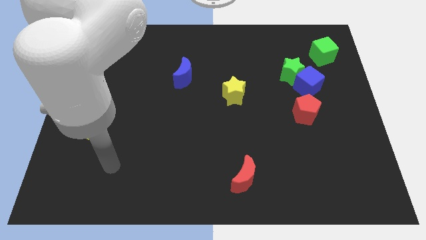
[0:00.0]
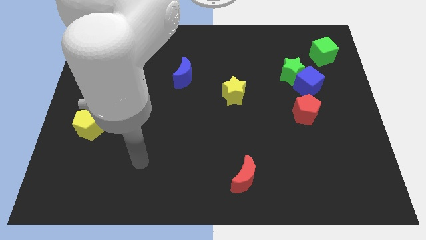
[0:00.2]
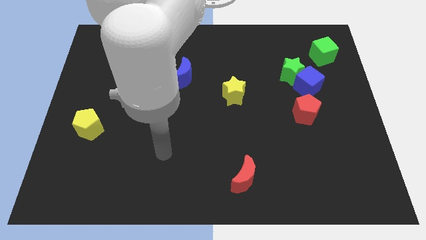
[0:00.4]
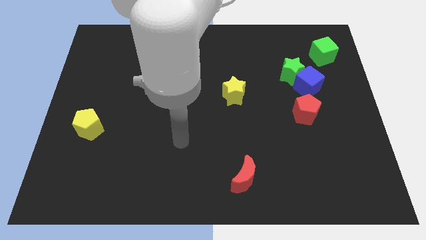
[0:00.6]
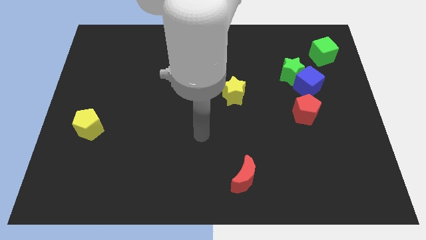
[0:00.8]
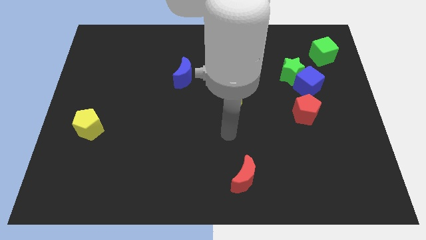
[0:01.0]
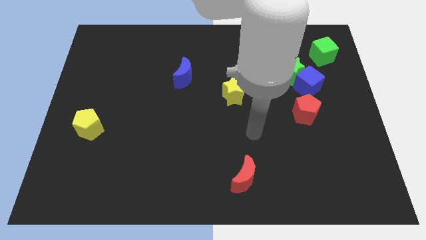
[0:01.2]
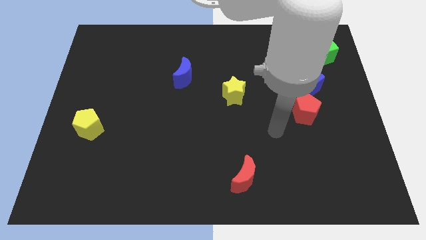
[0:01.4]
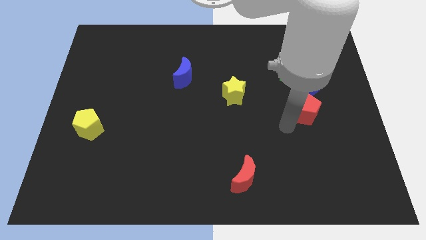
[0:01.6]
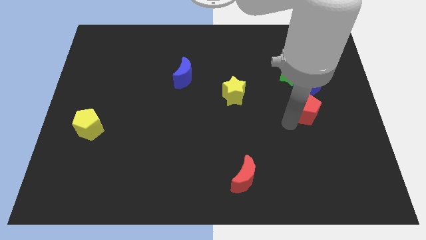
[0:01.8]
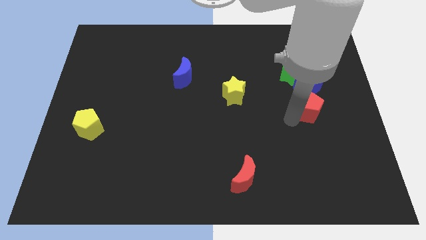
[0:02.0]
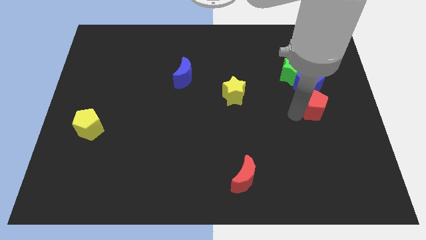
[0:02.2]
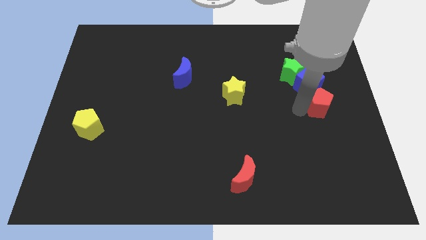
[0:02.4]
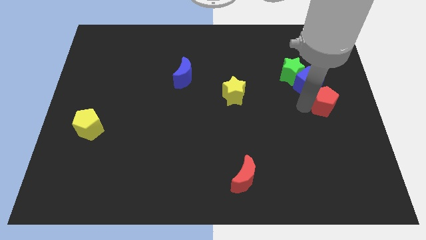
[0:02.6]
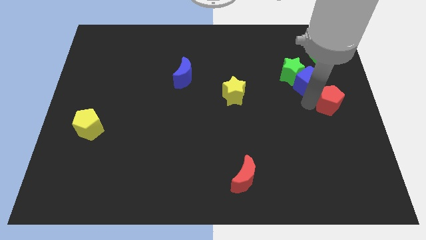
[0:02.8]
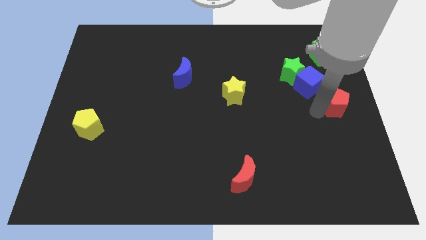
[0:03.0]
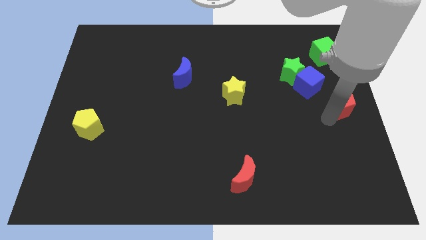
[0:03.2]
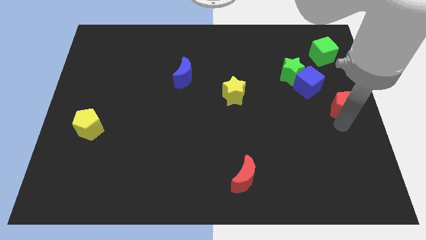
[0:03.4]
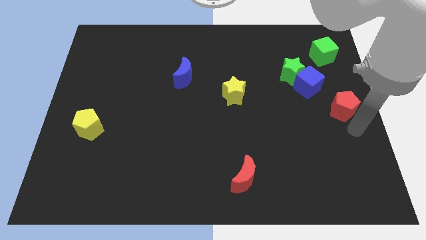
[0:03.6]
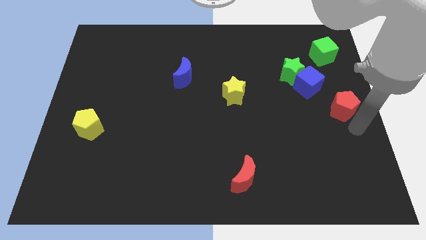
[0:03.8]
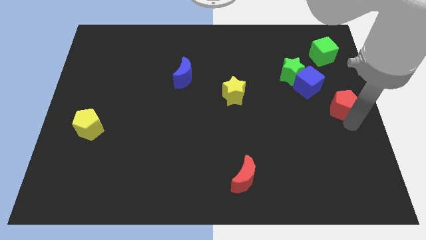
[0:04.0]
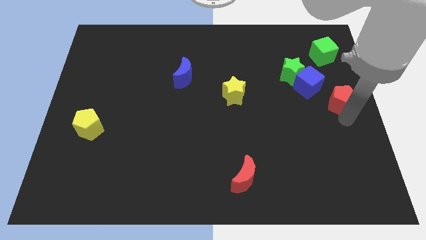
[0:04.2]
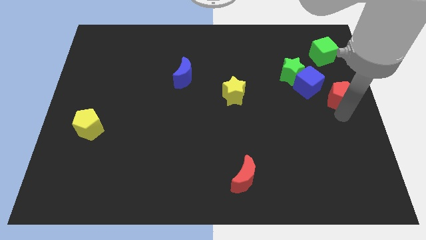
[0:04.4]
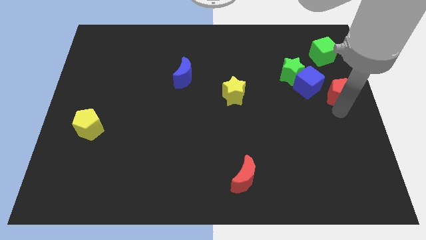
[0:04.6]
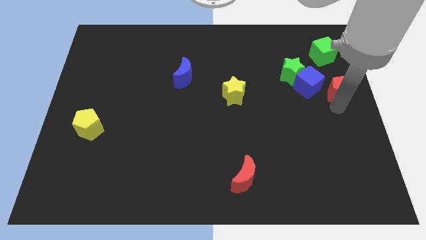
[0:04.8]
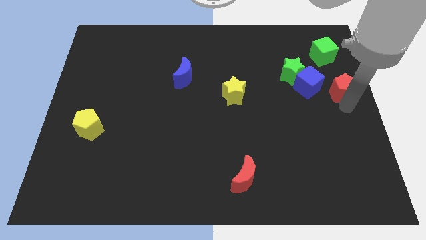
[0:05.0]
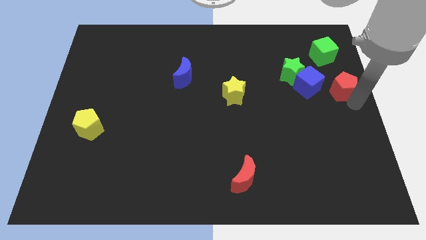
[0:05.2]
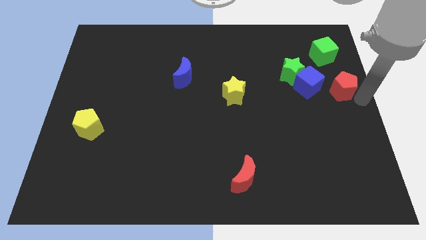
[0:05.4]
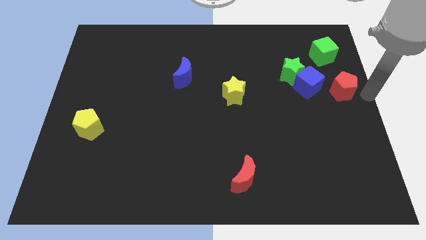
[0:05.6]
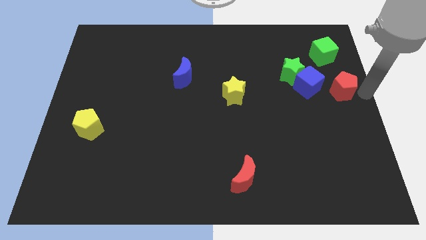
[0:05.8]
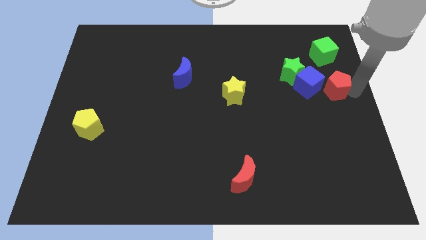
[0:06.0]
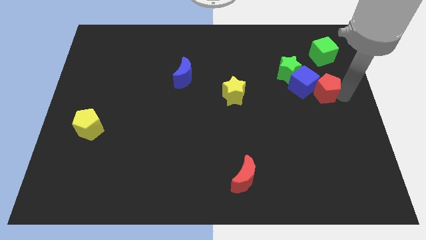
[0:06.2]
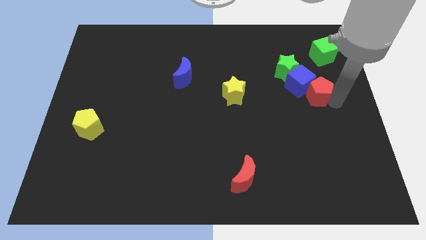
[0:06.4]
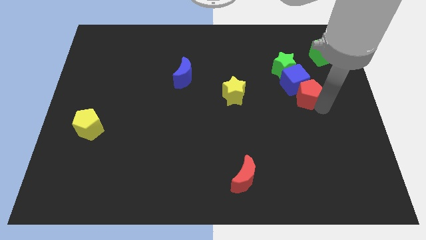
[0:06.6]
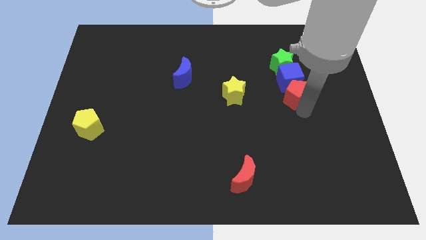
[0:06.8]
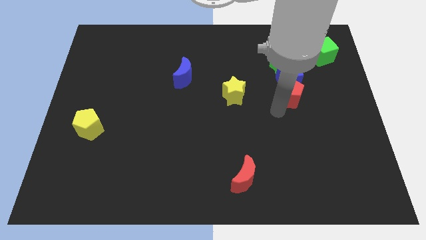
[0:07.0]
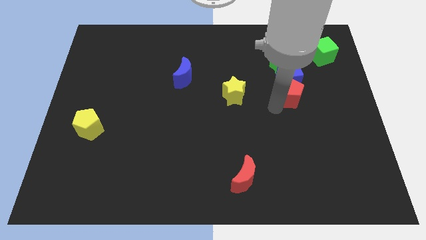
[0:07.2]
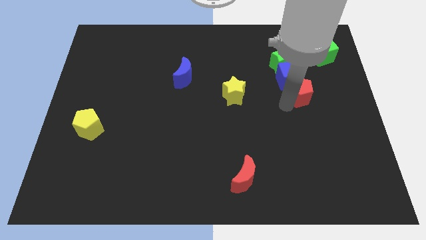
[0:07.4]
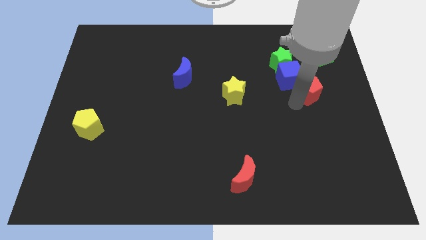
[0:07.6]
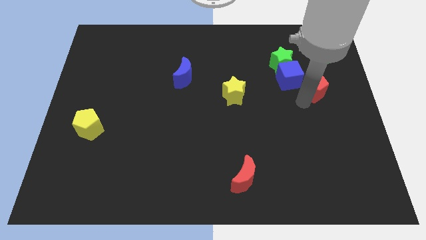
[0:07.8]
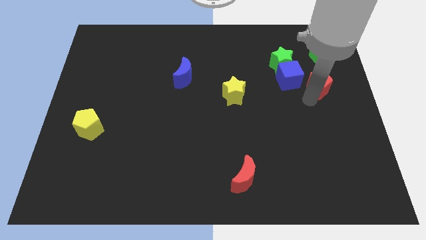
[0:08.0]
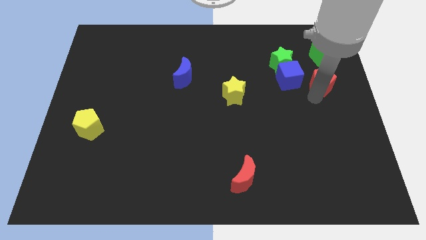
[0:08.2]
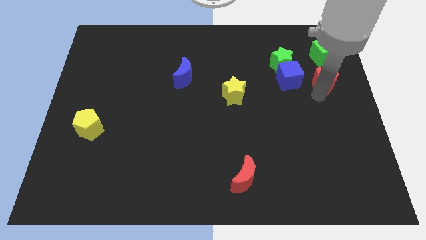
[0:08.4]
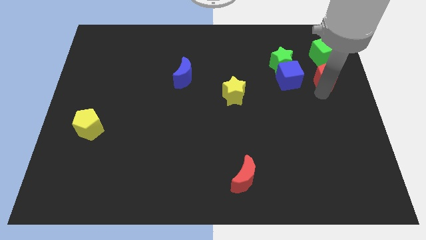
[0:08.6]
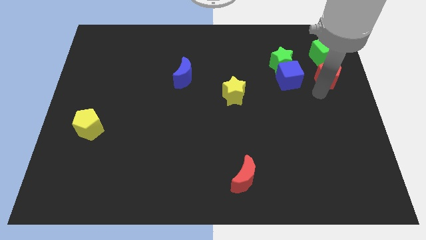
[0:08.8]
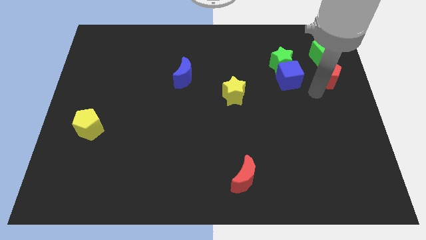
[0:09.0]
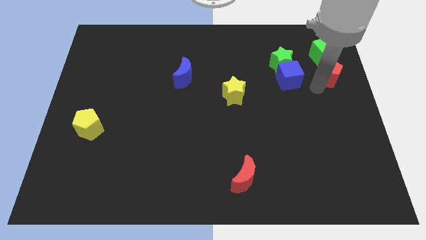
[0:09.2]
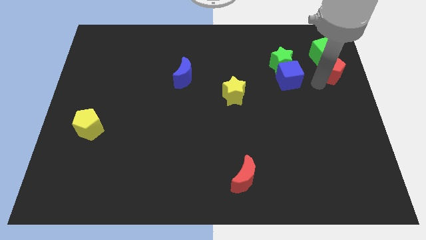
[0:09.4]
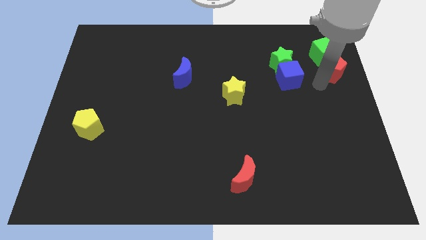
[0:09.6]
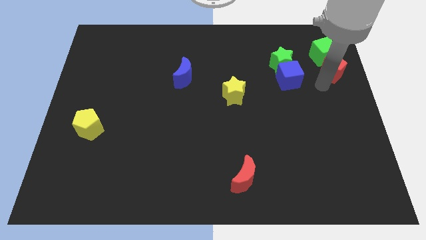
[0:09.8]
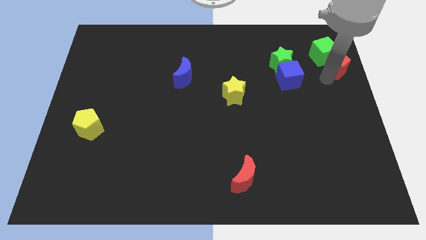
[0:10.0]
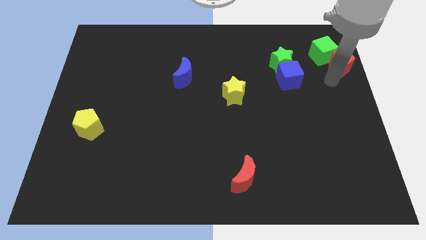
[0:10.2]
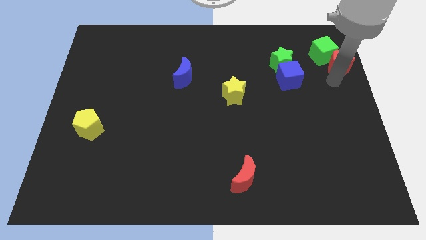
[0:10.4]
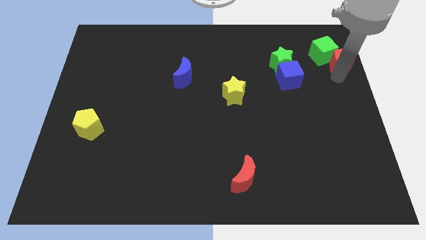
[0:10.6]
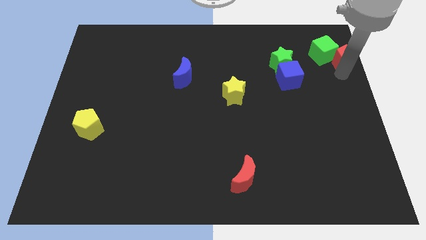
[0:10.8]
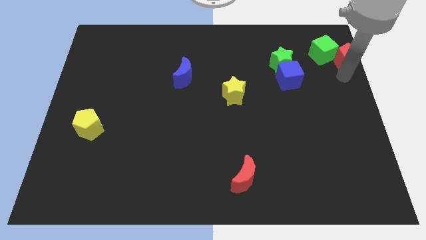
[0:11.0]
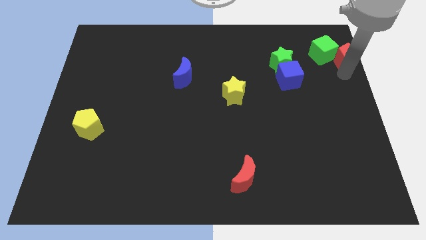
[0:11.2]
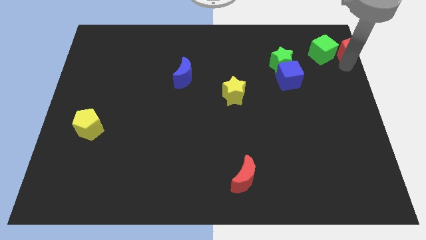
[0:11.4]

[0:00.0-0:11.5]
slide the red pentagon to the top right

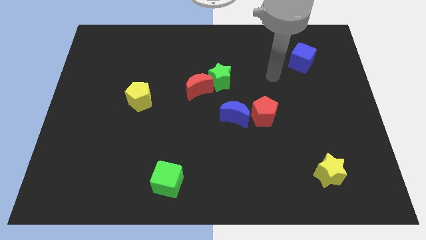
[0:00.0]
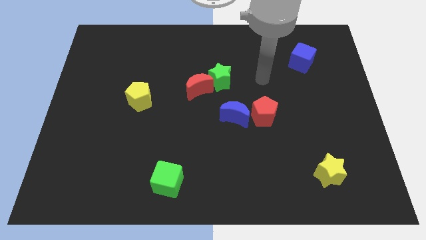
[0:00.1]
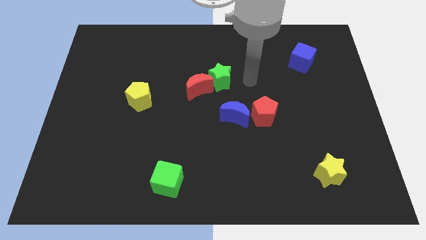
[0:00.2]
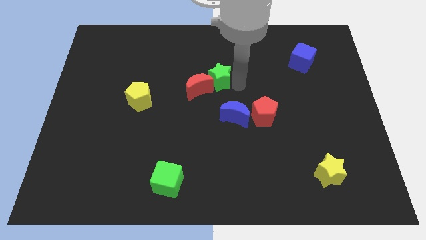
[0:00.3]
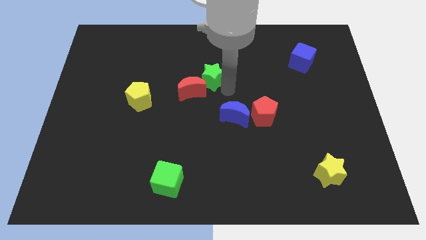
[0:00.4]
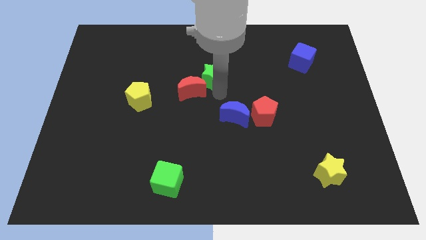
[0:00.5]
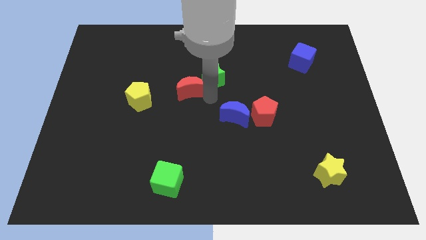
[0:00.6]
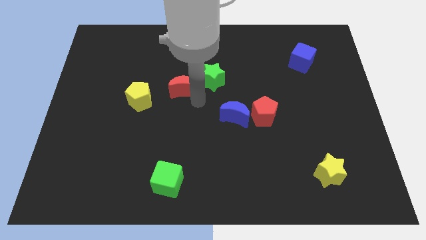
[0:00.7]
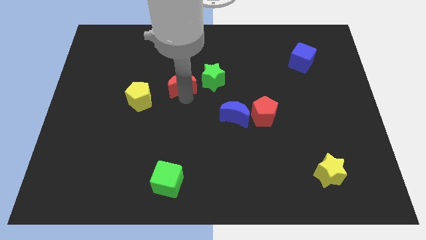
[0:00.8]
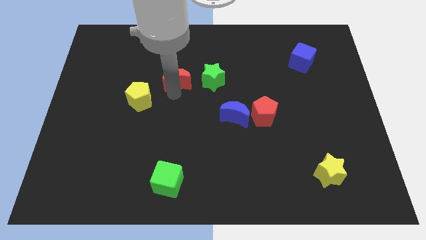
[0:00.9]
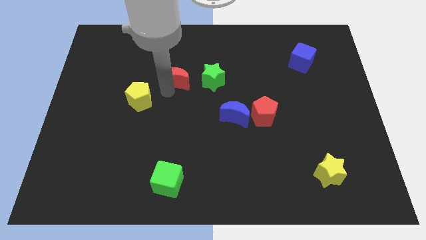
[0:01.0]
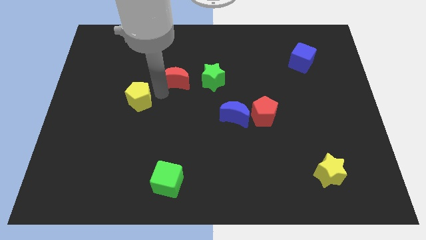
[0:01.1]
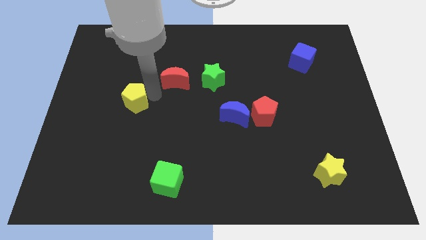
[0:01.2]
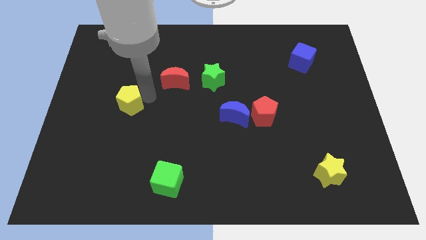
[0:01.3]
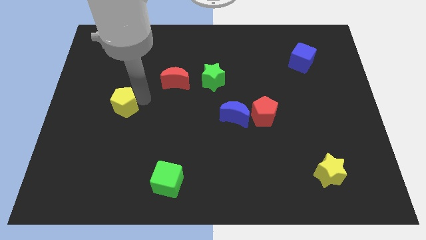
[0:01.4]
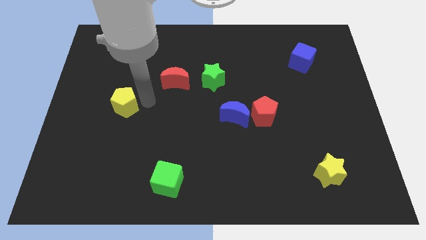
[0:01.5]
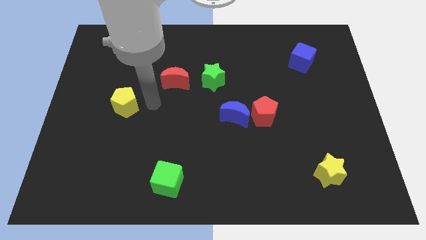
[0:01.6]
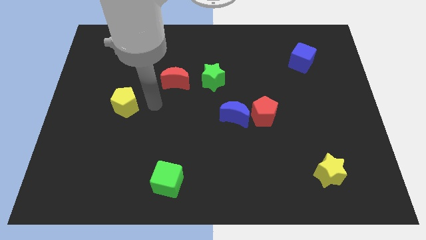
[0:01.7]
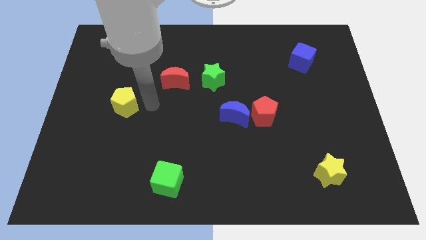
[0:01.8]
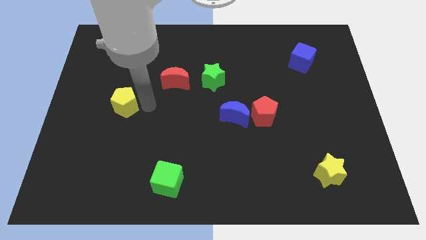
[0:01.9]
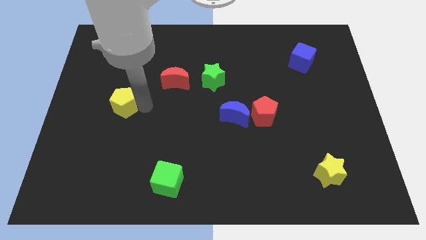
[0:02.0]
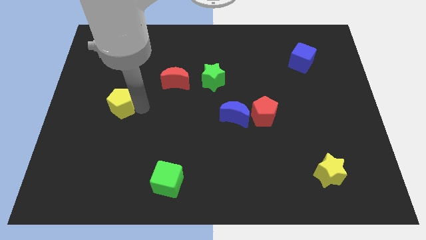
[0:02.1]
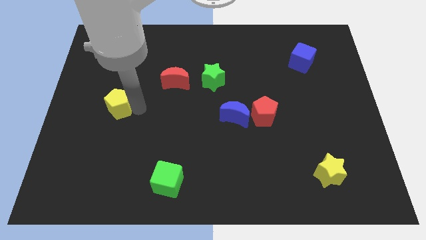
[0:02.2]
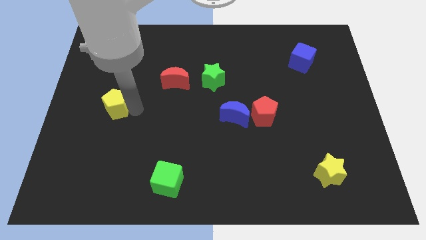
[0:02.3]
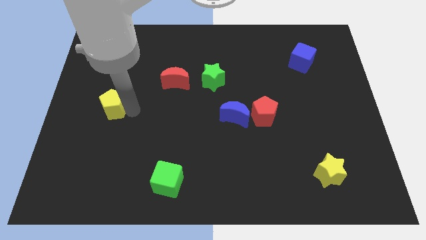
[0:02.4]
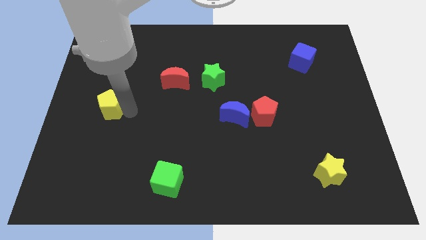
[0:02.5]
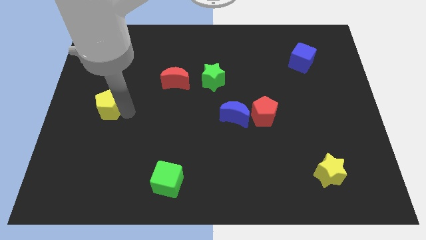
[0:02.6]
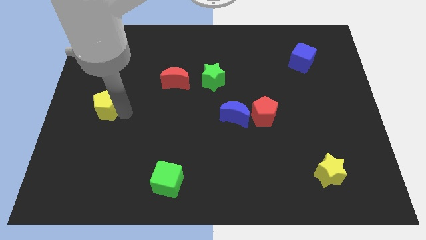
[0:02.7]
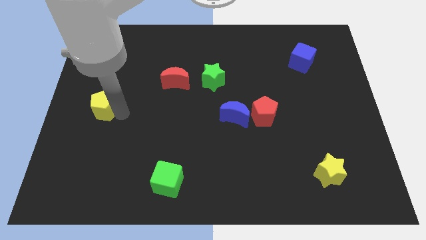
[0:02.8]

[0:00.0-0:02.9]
move the yellow pentagon to the left side
